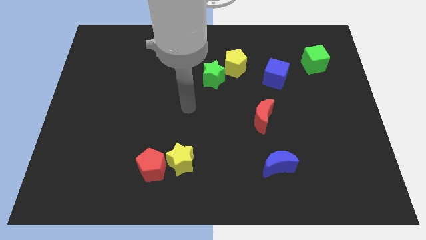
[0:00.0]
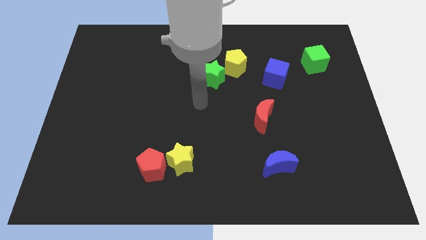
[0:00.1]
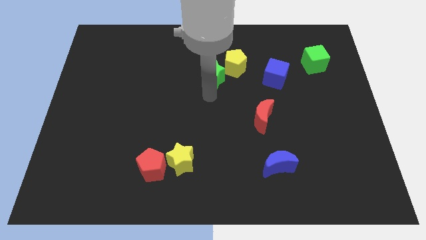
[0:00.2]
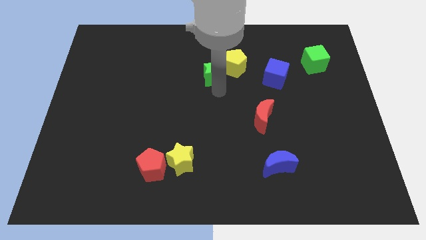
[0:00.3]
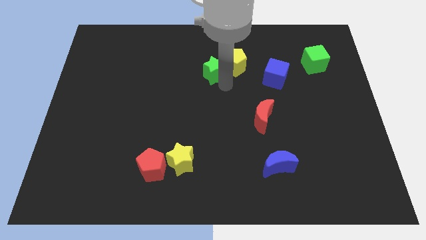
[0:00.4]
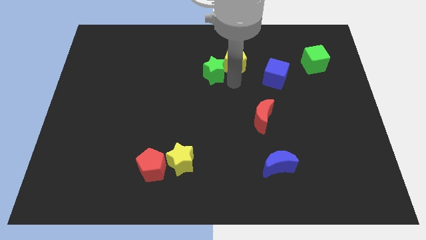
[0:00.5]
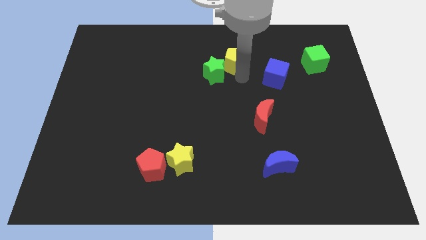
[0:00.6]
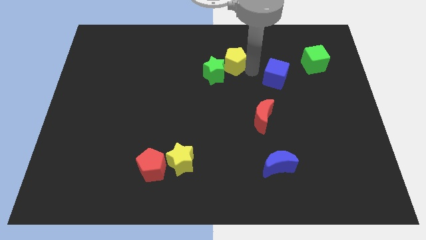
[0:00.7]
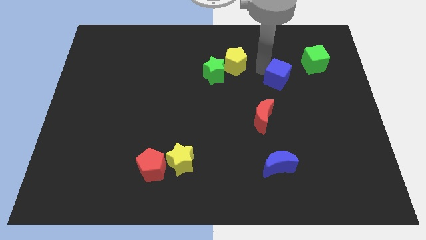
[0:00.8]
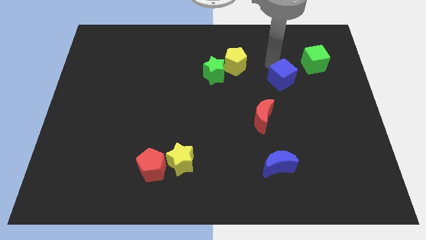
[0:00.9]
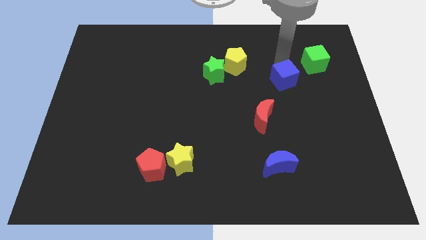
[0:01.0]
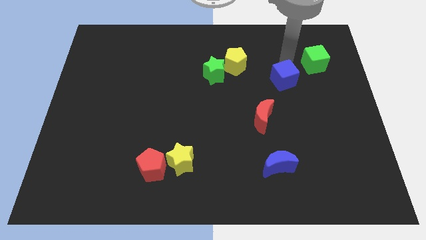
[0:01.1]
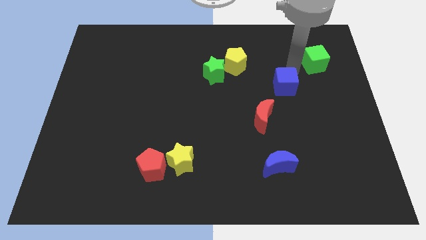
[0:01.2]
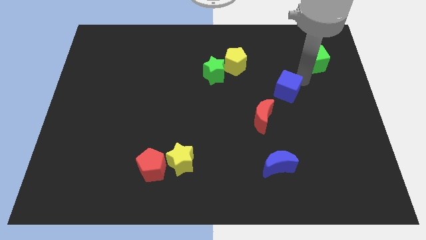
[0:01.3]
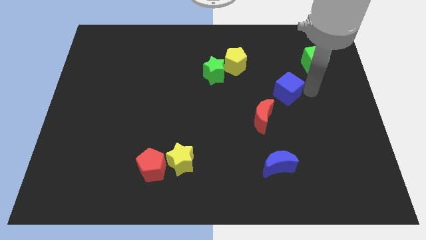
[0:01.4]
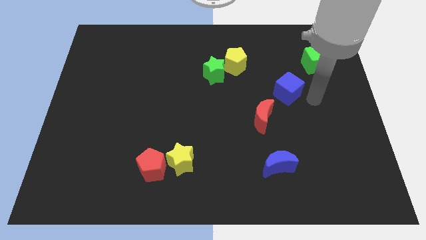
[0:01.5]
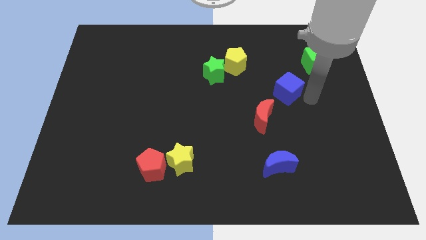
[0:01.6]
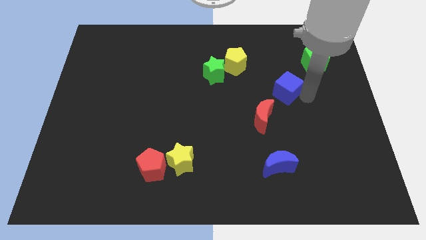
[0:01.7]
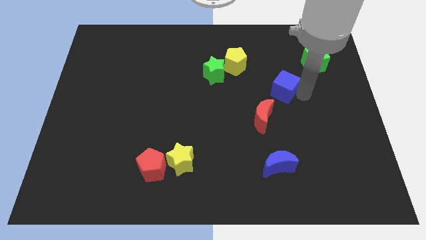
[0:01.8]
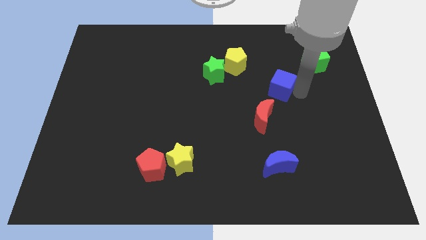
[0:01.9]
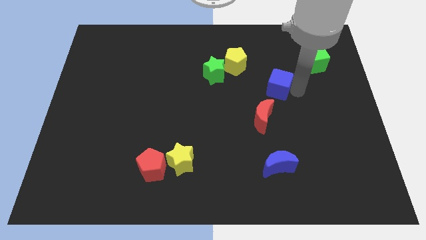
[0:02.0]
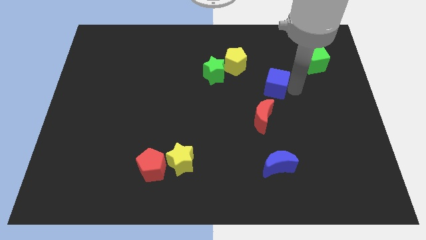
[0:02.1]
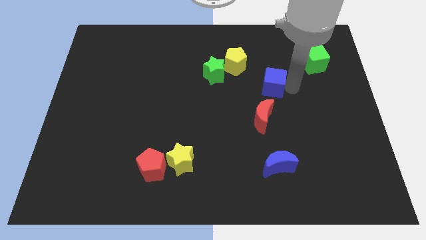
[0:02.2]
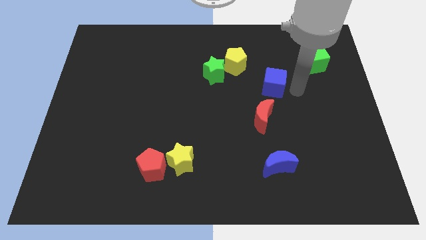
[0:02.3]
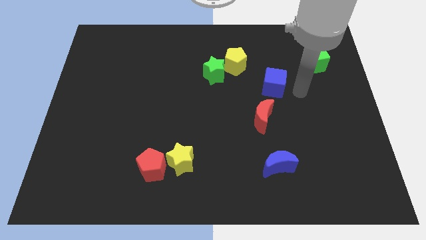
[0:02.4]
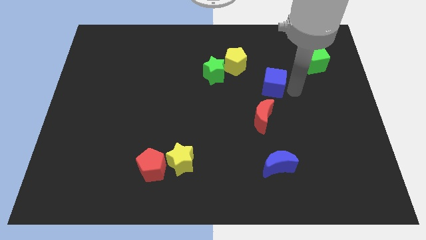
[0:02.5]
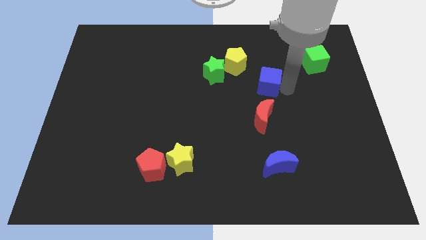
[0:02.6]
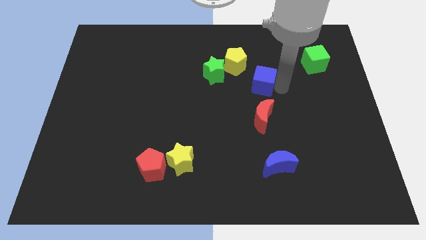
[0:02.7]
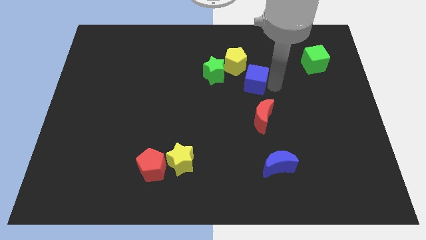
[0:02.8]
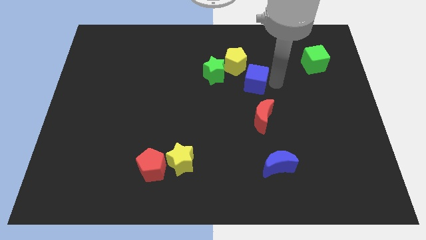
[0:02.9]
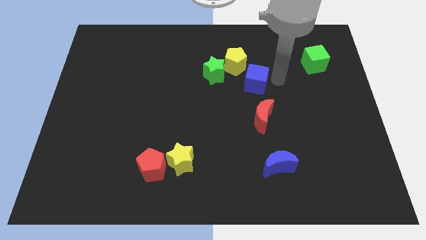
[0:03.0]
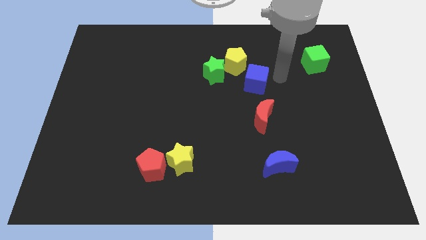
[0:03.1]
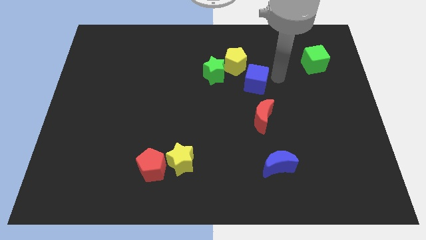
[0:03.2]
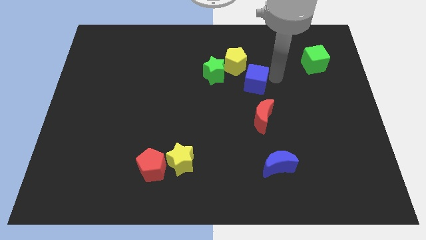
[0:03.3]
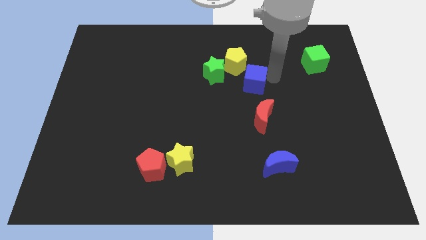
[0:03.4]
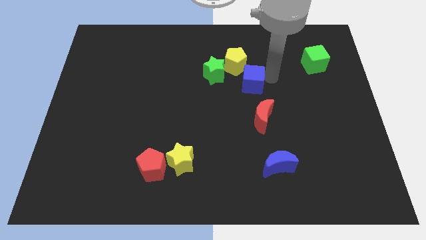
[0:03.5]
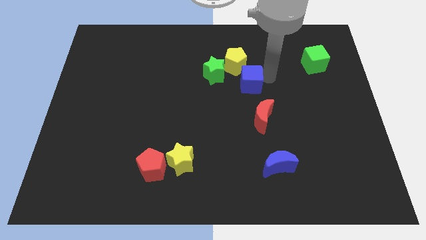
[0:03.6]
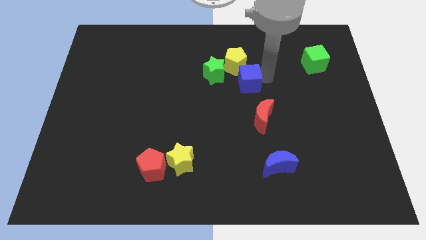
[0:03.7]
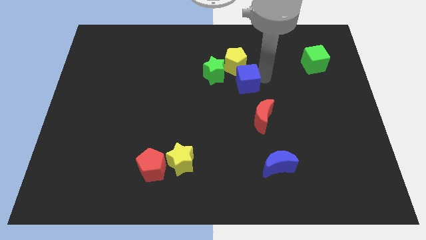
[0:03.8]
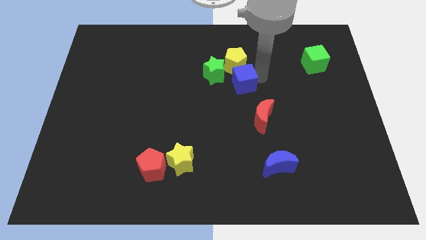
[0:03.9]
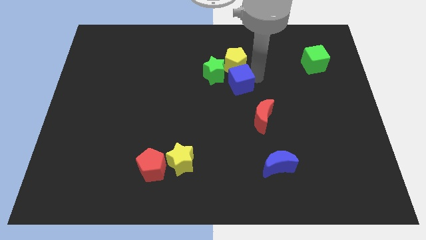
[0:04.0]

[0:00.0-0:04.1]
slide the blue cube downwards and to the left a bit

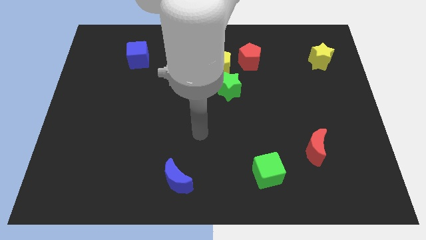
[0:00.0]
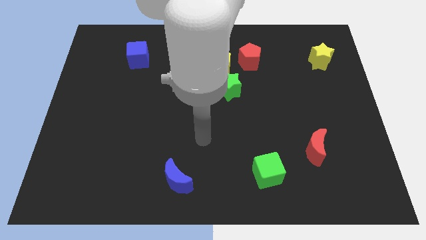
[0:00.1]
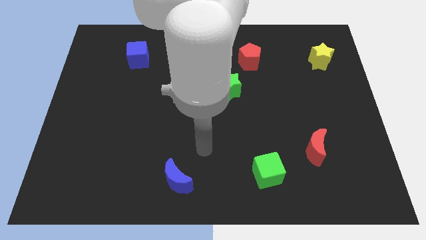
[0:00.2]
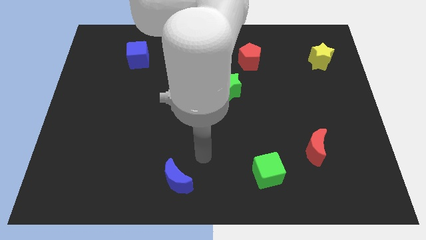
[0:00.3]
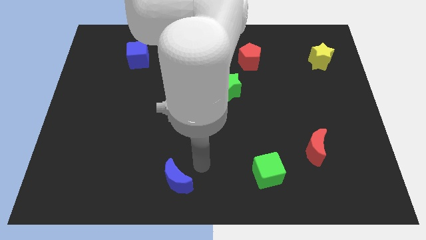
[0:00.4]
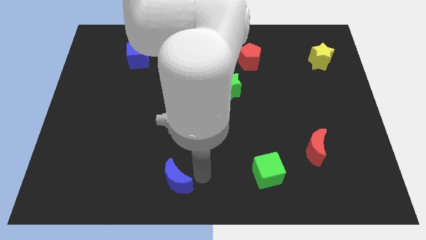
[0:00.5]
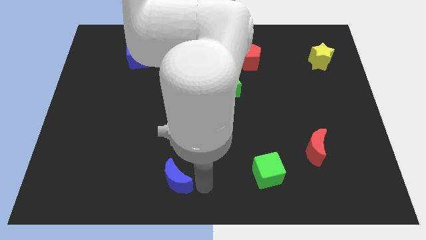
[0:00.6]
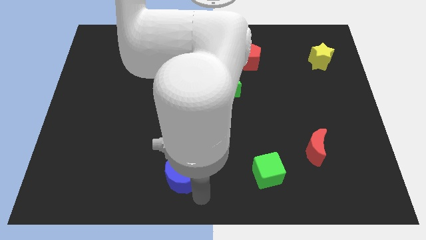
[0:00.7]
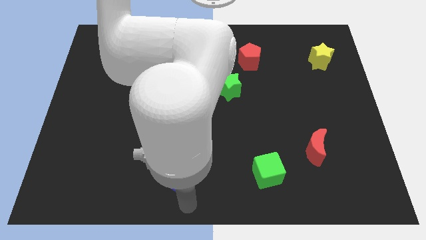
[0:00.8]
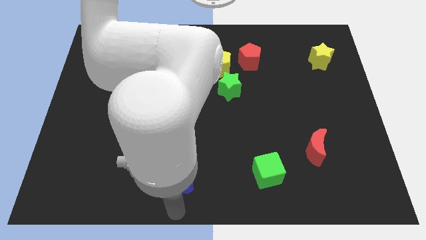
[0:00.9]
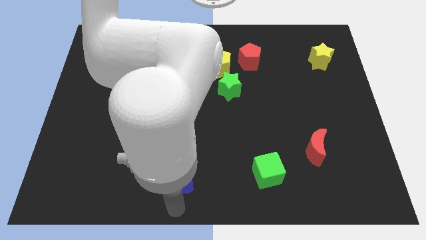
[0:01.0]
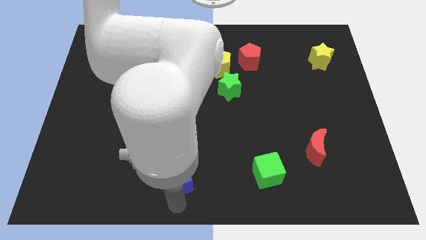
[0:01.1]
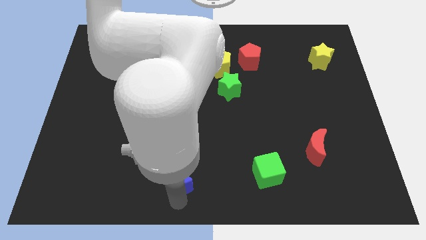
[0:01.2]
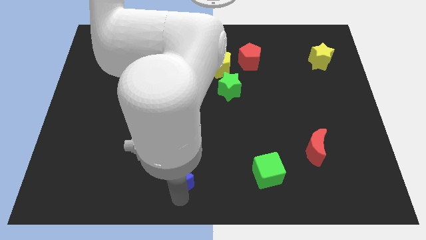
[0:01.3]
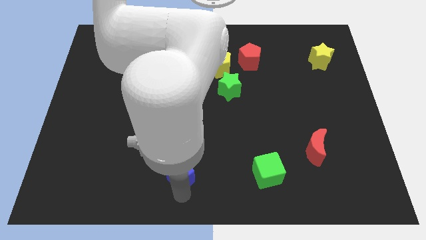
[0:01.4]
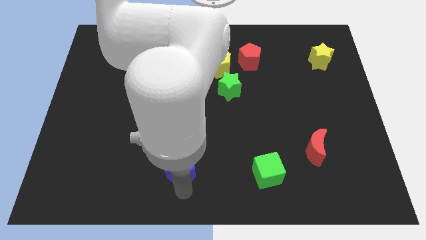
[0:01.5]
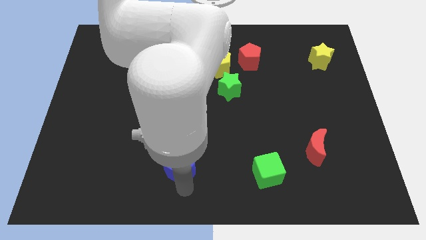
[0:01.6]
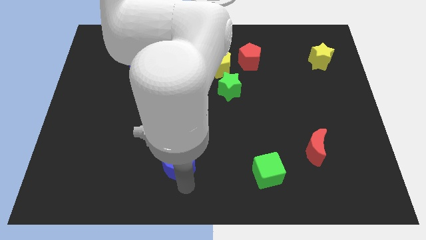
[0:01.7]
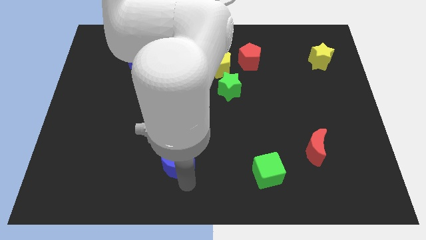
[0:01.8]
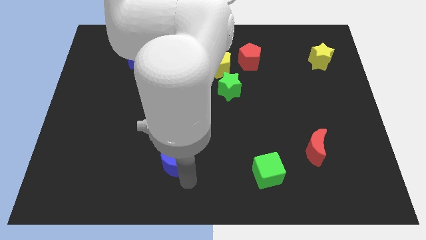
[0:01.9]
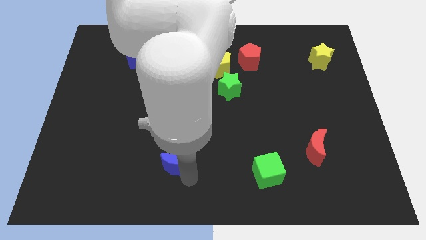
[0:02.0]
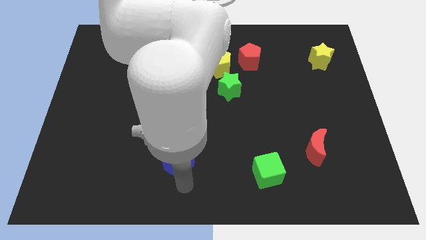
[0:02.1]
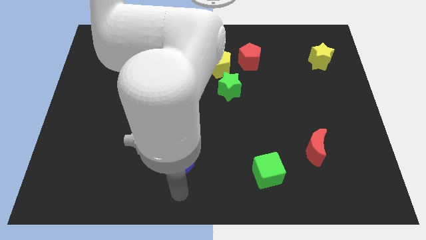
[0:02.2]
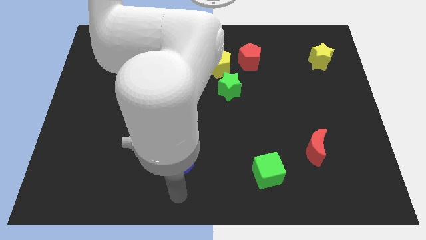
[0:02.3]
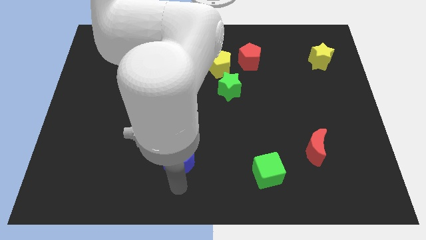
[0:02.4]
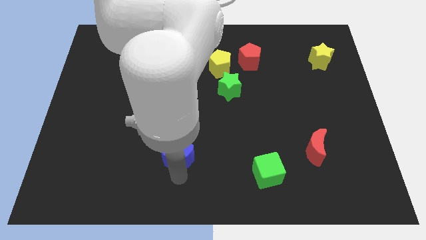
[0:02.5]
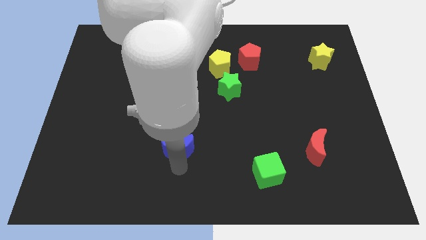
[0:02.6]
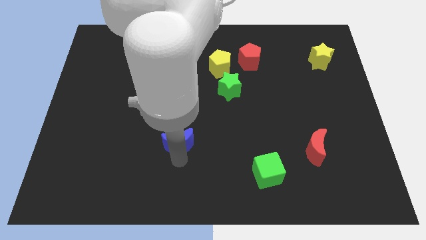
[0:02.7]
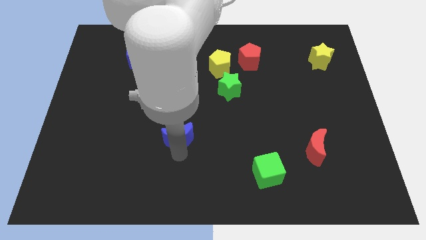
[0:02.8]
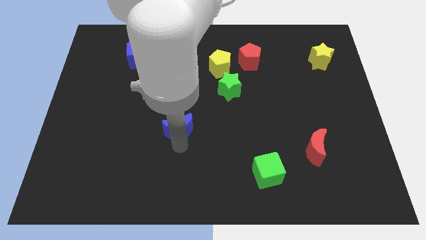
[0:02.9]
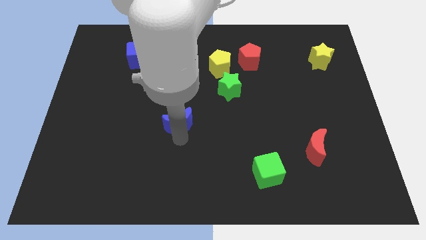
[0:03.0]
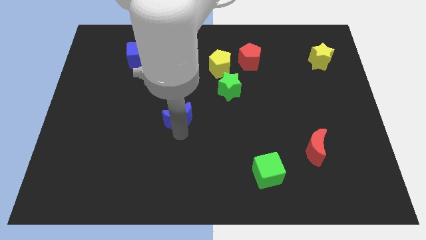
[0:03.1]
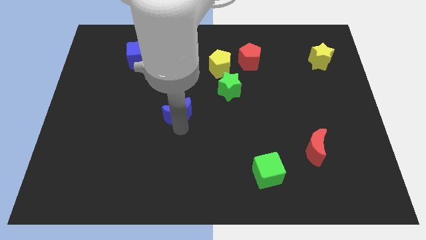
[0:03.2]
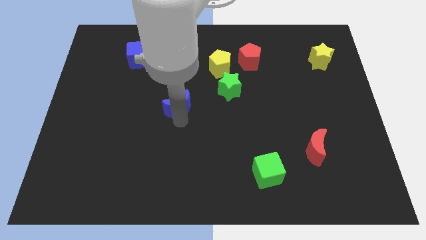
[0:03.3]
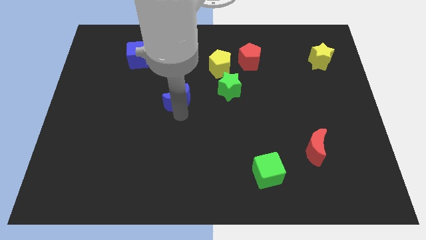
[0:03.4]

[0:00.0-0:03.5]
slide the blue moon up
